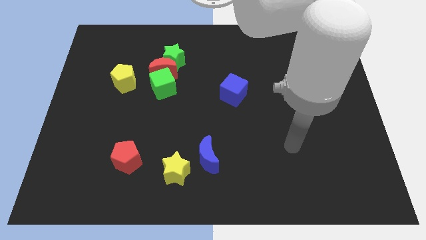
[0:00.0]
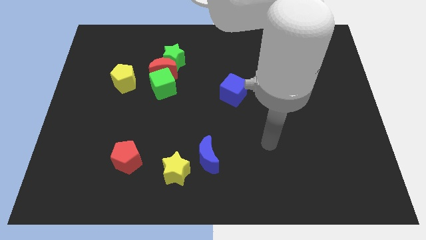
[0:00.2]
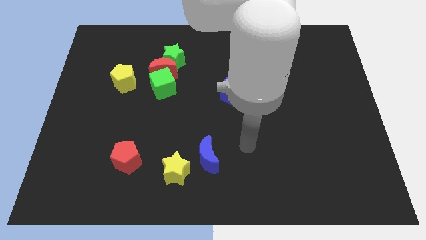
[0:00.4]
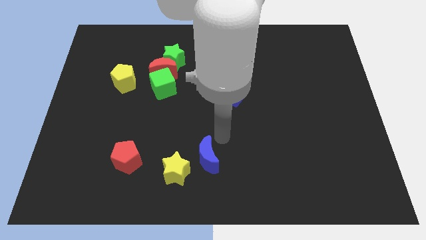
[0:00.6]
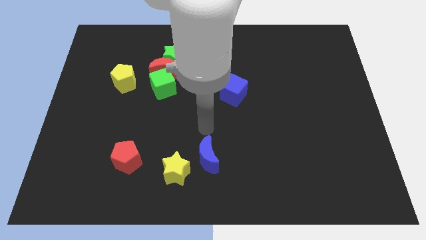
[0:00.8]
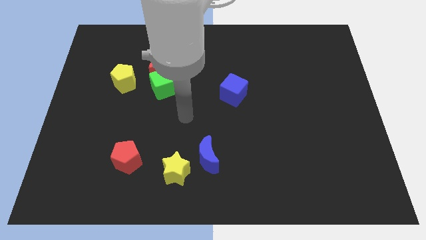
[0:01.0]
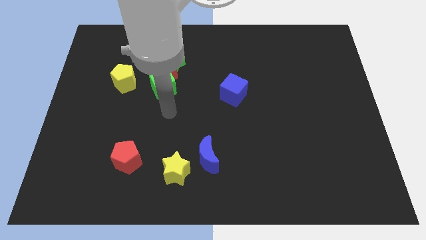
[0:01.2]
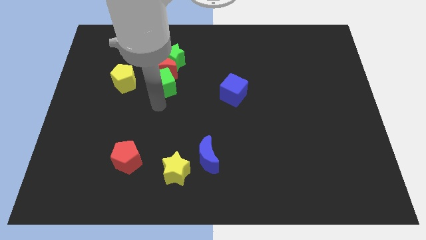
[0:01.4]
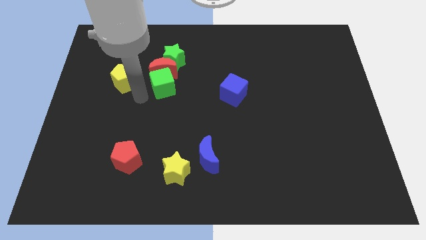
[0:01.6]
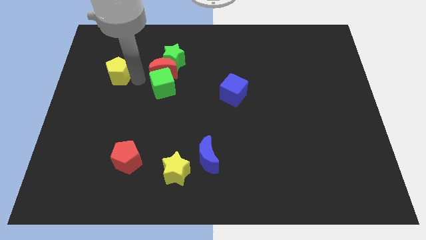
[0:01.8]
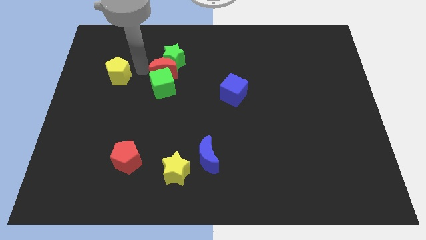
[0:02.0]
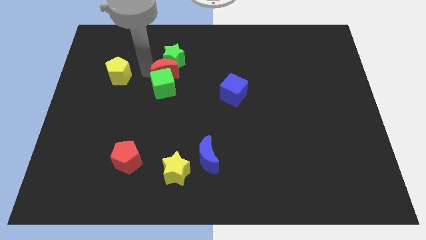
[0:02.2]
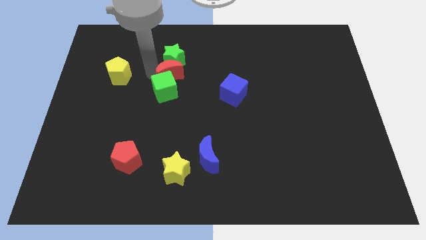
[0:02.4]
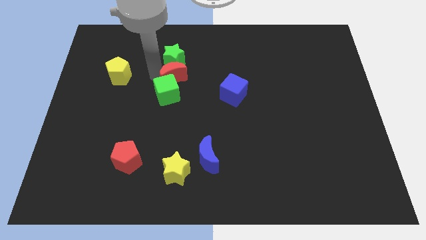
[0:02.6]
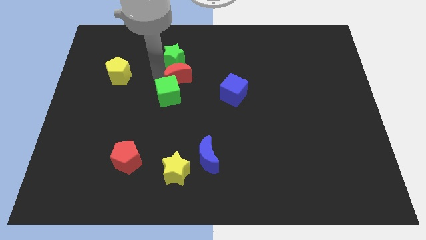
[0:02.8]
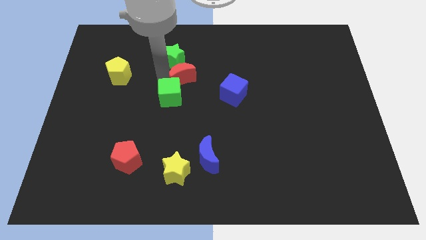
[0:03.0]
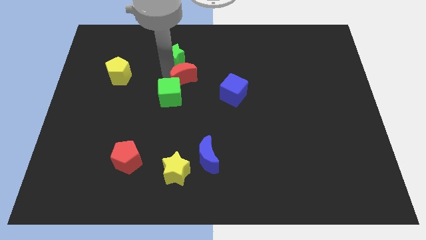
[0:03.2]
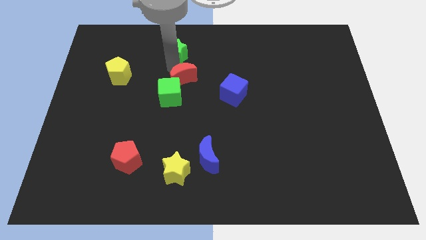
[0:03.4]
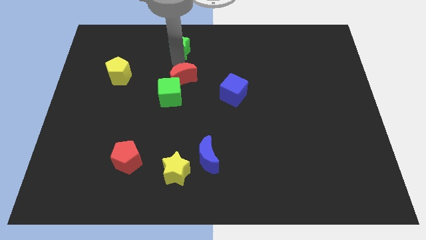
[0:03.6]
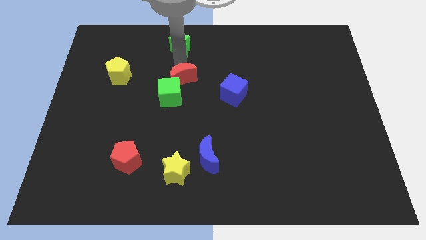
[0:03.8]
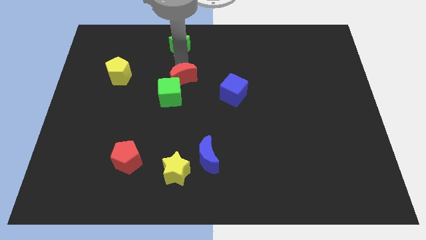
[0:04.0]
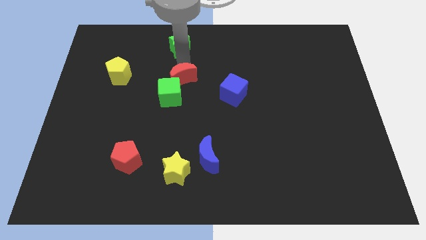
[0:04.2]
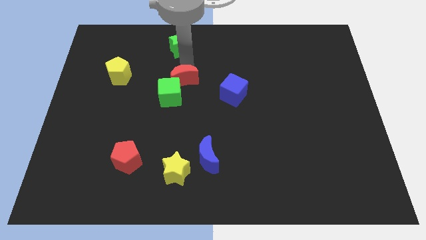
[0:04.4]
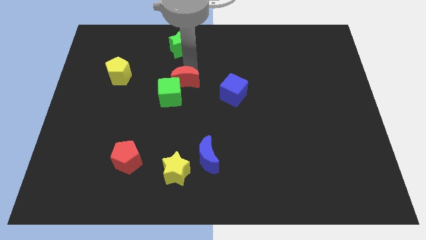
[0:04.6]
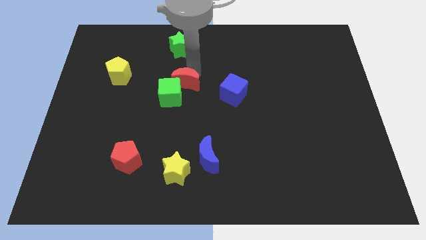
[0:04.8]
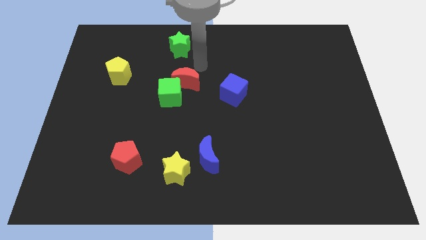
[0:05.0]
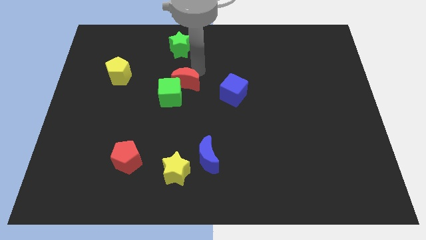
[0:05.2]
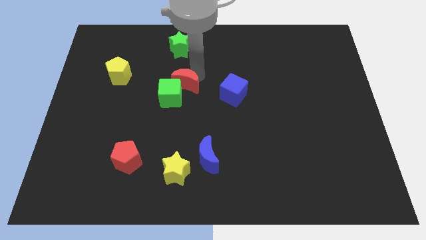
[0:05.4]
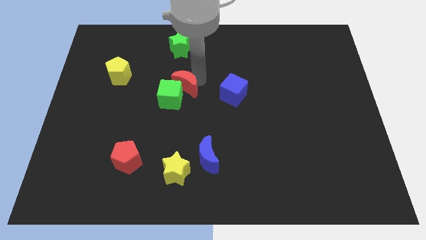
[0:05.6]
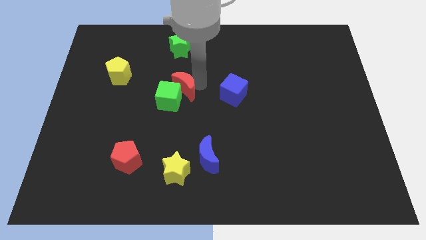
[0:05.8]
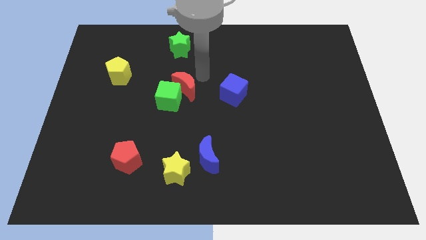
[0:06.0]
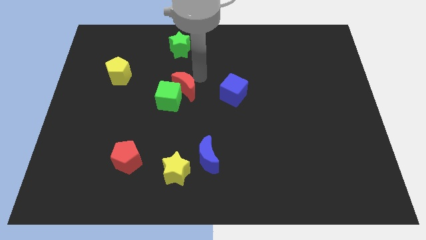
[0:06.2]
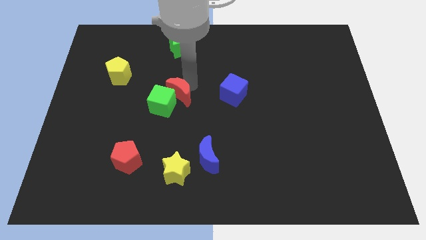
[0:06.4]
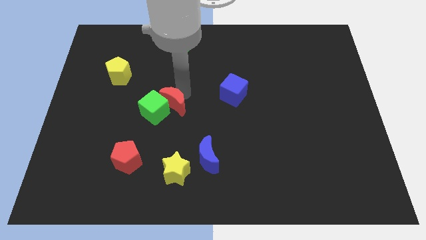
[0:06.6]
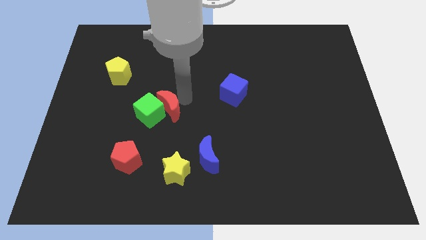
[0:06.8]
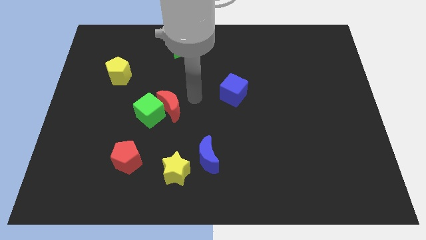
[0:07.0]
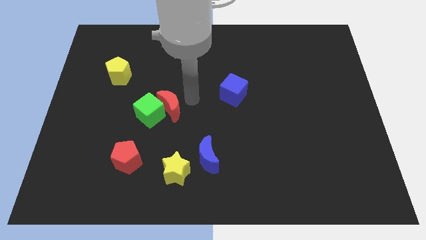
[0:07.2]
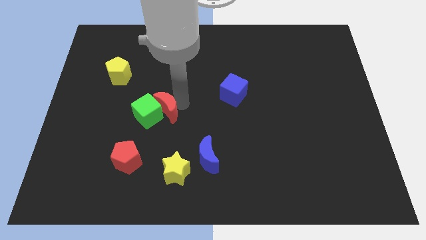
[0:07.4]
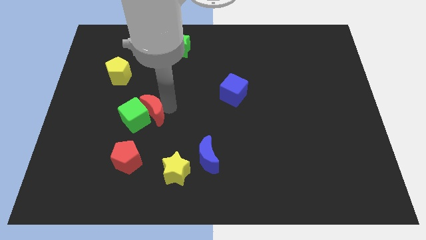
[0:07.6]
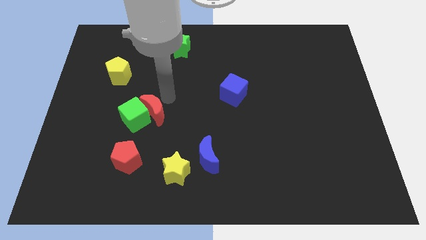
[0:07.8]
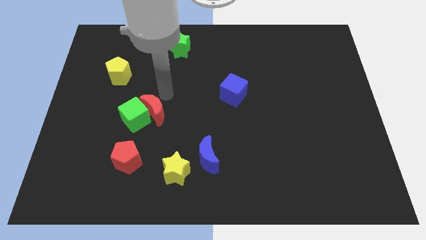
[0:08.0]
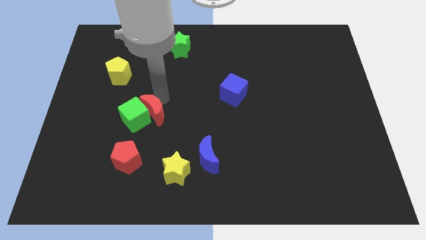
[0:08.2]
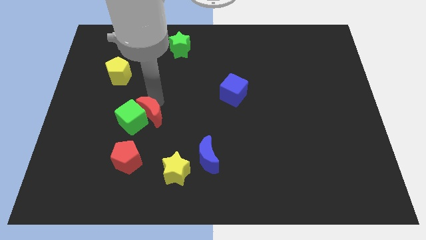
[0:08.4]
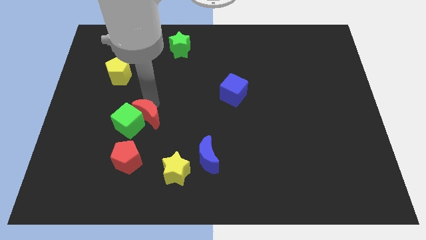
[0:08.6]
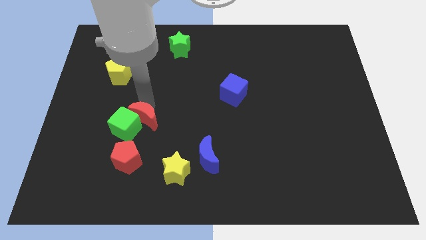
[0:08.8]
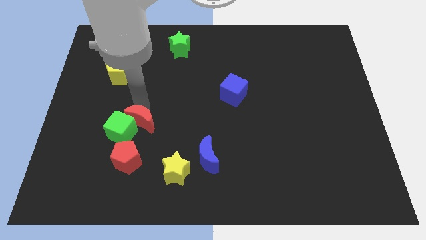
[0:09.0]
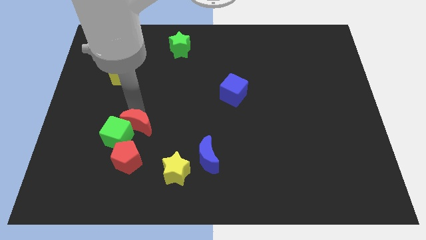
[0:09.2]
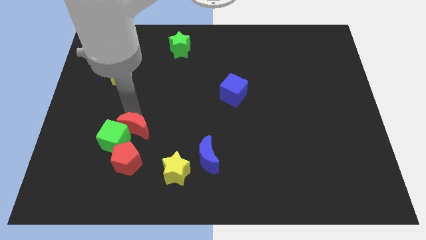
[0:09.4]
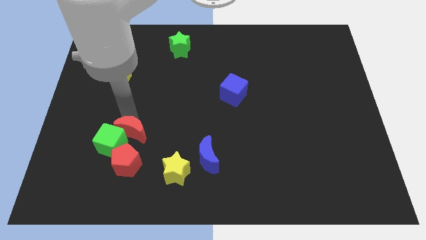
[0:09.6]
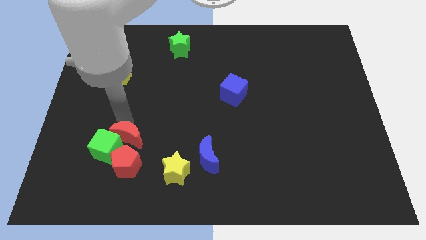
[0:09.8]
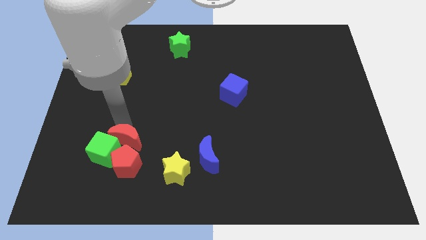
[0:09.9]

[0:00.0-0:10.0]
move the red moon close to the red pentagon

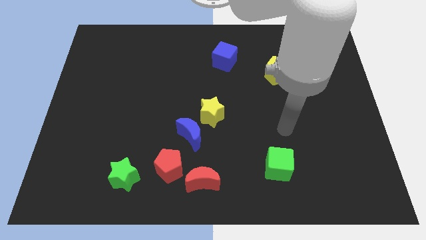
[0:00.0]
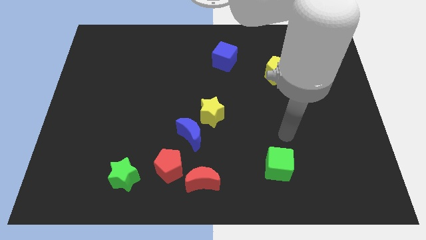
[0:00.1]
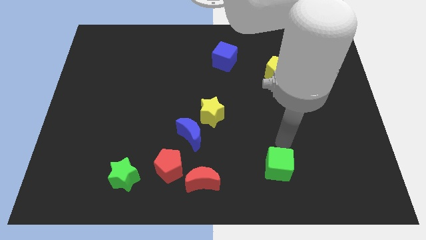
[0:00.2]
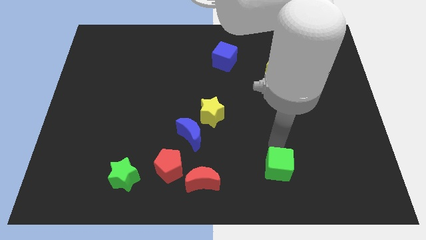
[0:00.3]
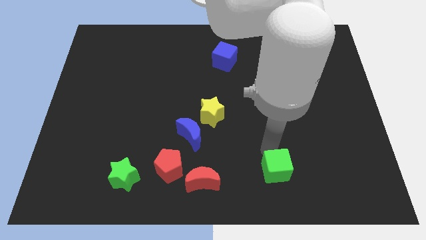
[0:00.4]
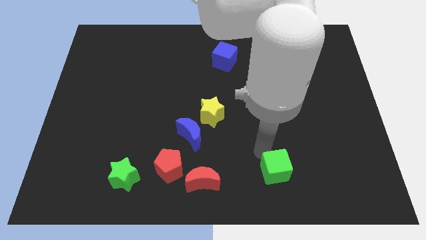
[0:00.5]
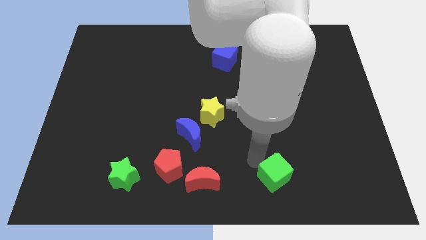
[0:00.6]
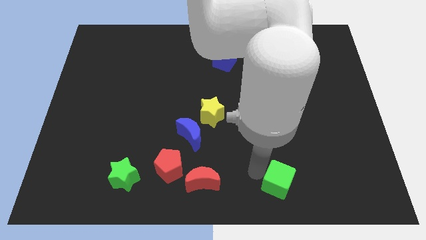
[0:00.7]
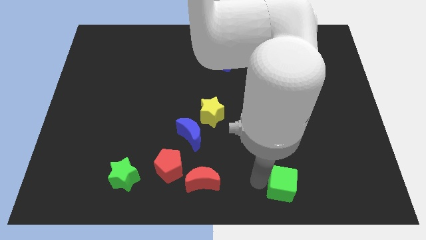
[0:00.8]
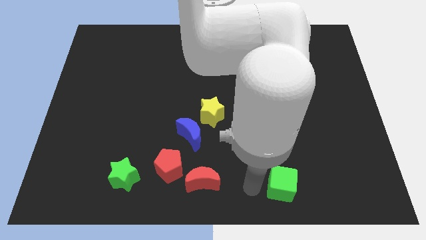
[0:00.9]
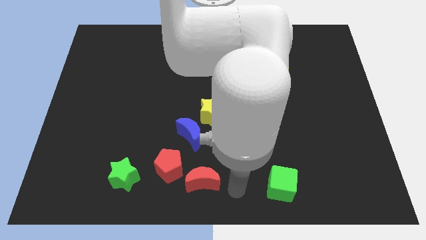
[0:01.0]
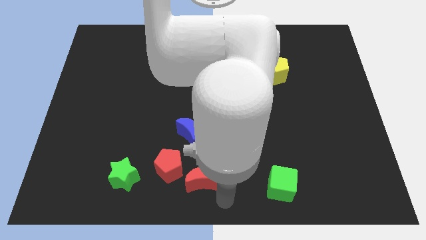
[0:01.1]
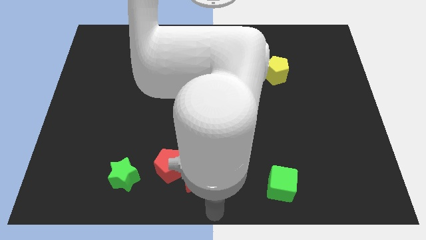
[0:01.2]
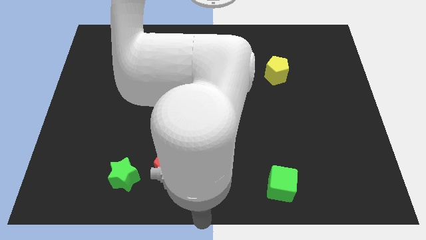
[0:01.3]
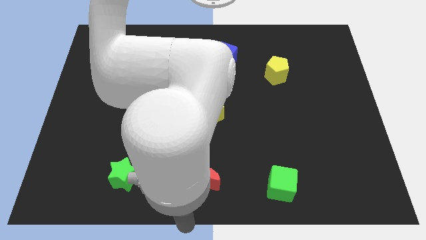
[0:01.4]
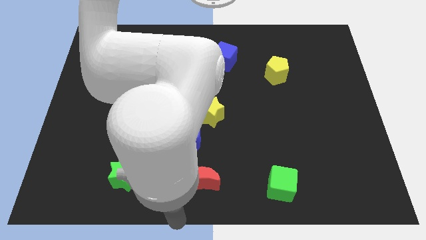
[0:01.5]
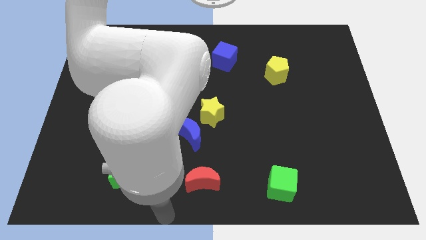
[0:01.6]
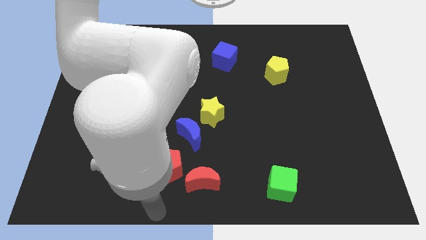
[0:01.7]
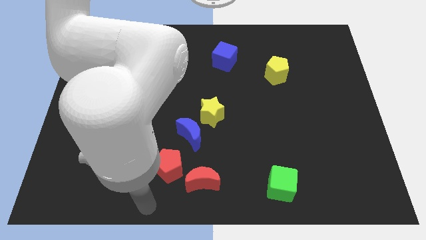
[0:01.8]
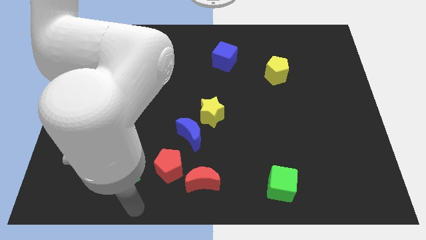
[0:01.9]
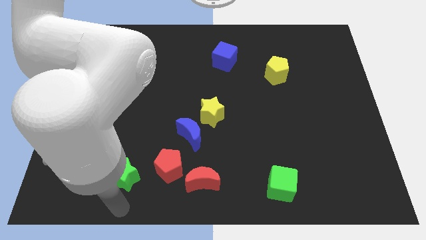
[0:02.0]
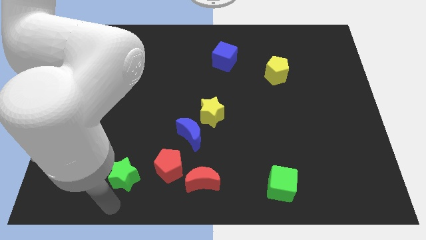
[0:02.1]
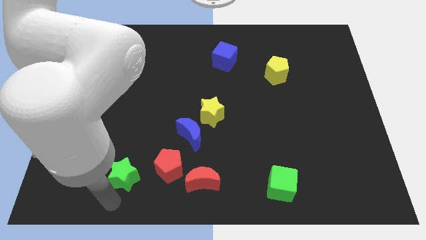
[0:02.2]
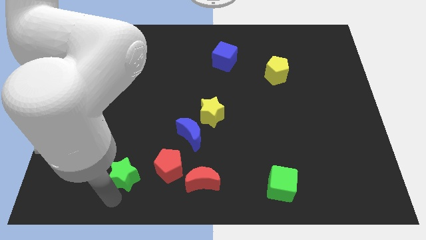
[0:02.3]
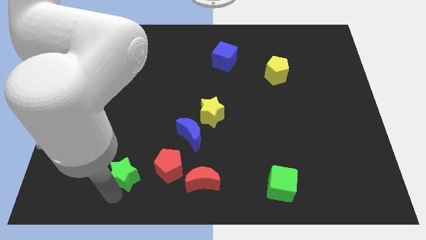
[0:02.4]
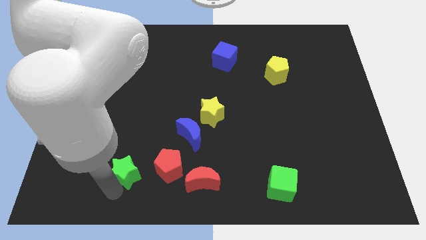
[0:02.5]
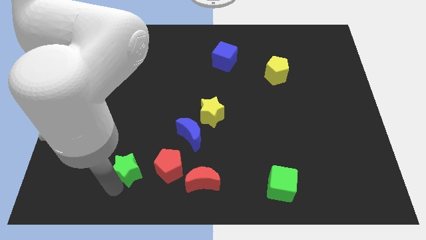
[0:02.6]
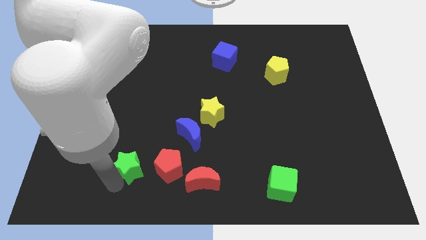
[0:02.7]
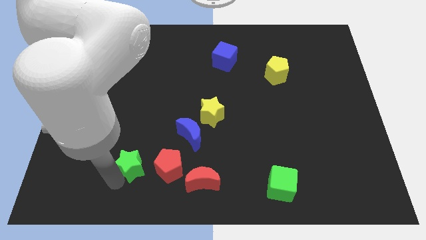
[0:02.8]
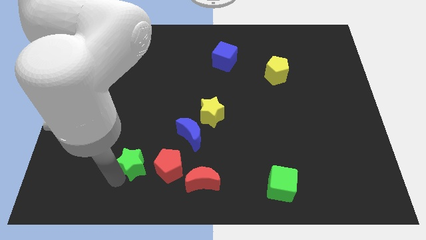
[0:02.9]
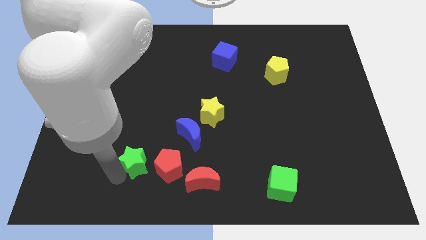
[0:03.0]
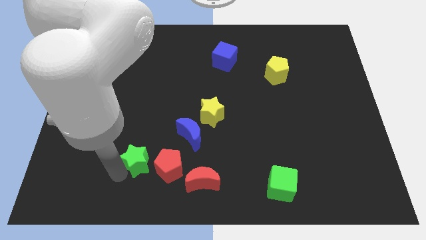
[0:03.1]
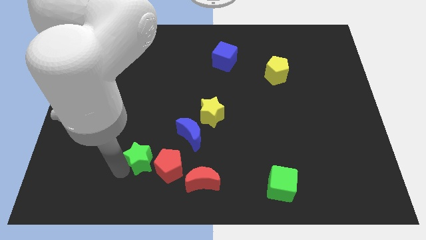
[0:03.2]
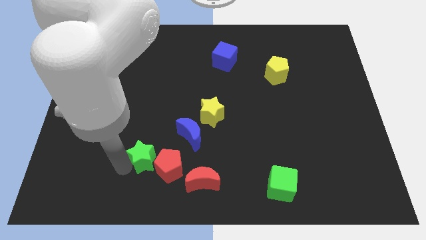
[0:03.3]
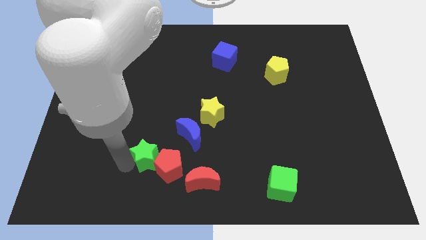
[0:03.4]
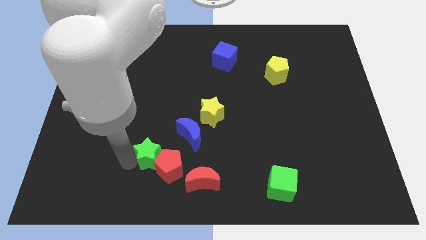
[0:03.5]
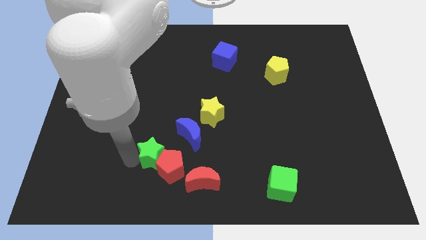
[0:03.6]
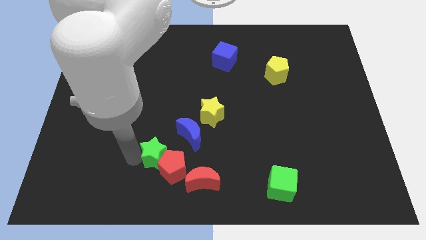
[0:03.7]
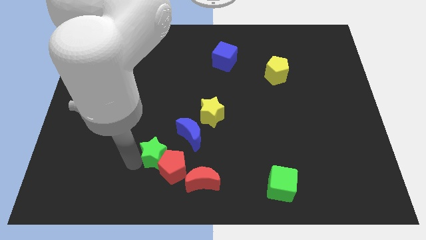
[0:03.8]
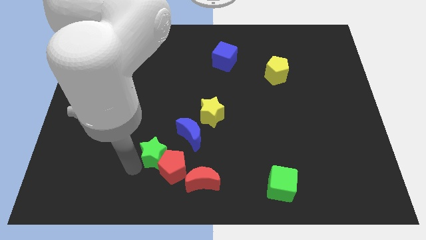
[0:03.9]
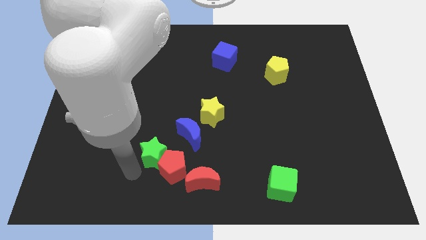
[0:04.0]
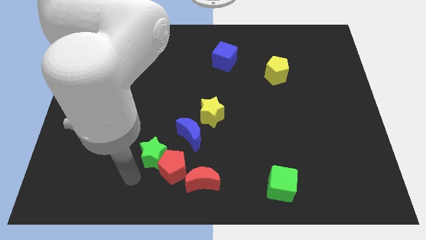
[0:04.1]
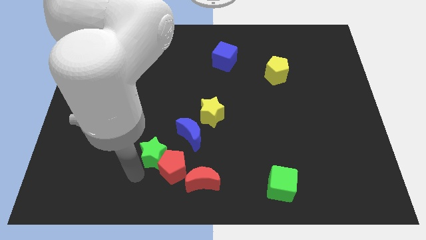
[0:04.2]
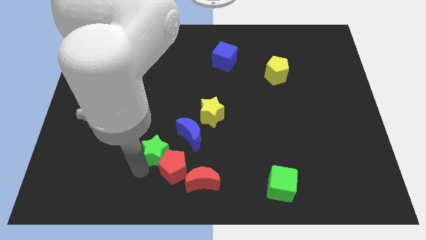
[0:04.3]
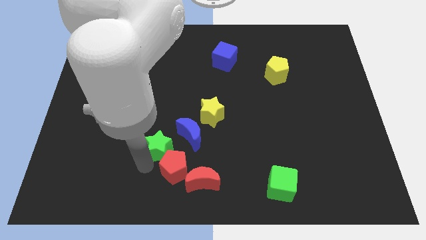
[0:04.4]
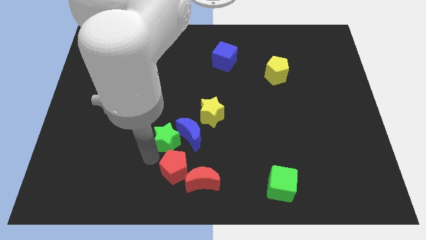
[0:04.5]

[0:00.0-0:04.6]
slide the green star next to the blue moon
